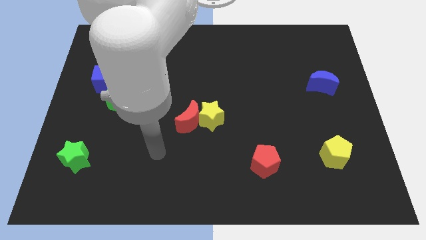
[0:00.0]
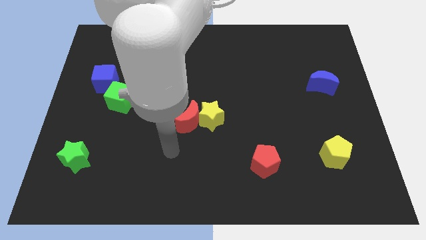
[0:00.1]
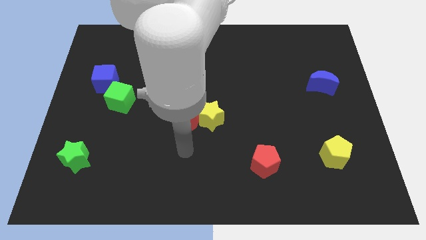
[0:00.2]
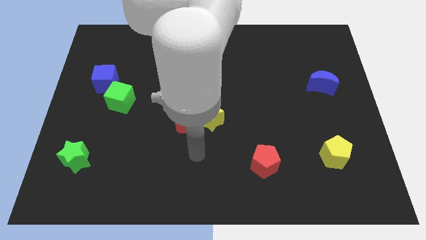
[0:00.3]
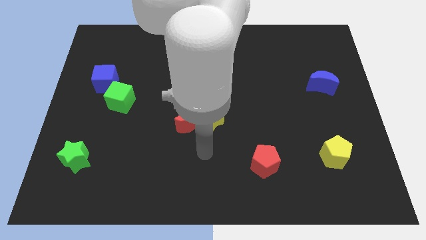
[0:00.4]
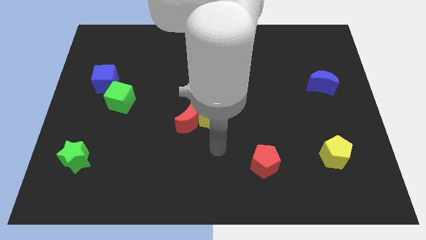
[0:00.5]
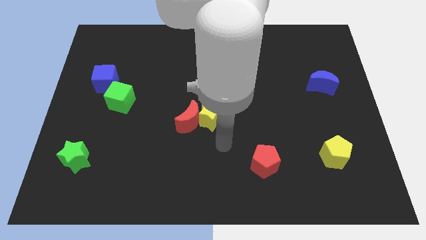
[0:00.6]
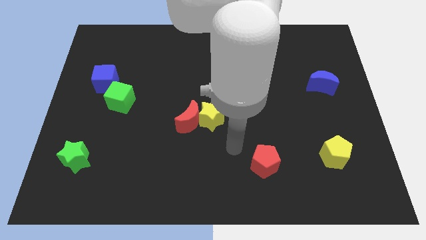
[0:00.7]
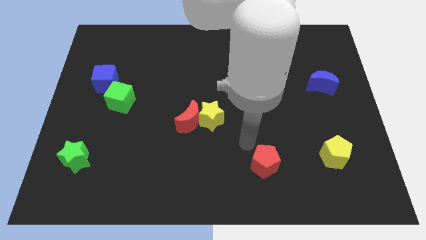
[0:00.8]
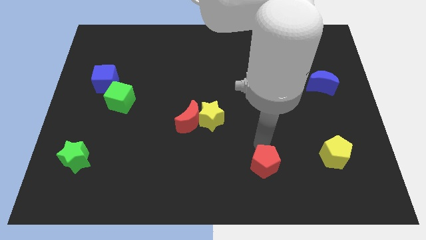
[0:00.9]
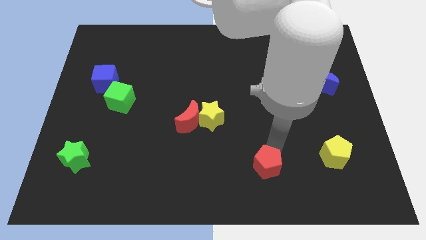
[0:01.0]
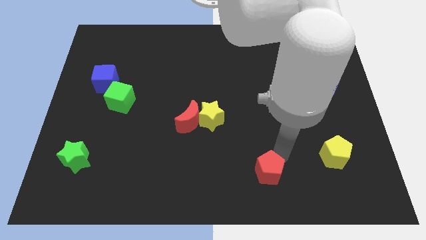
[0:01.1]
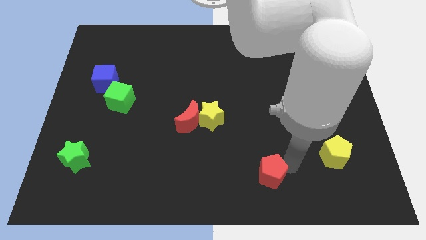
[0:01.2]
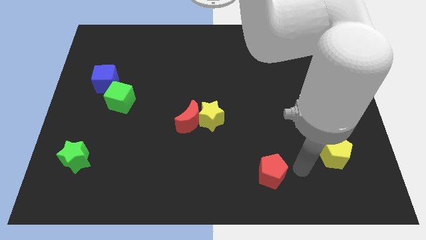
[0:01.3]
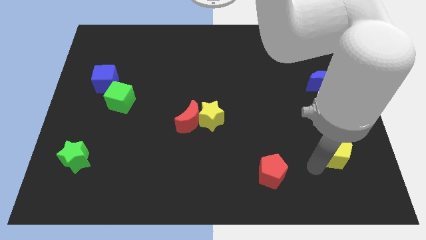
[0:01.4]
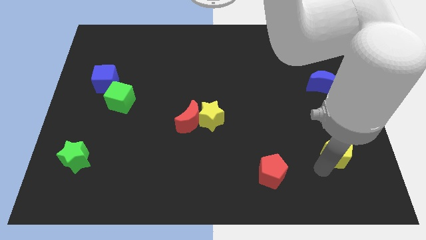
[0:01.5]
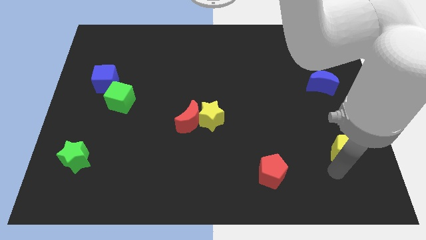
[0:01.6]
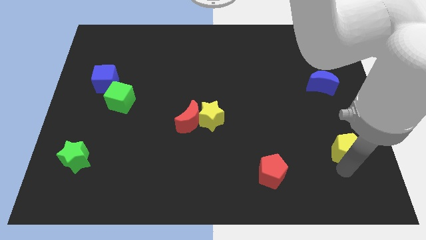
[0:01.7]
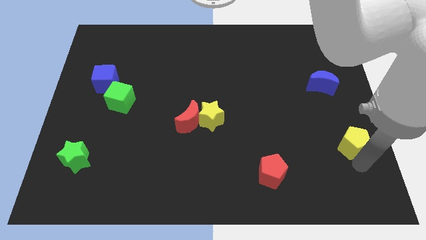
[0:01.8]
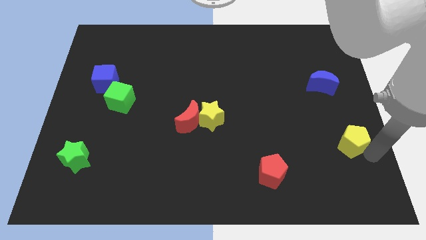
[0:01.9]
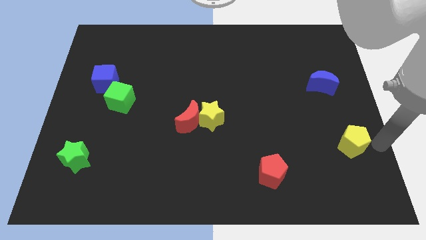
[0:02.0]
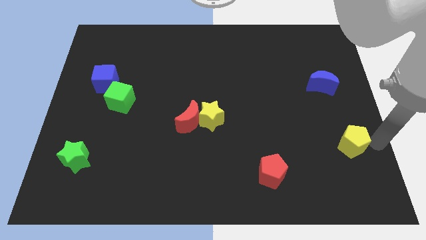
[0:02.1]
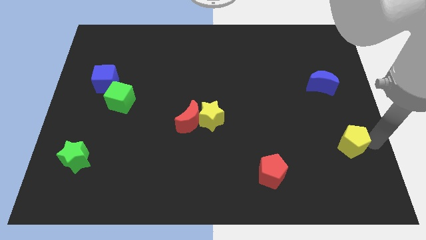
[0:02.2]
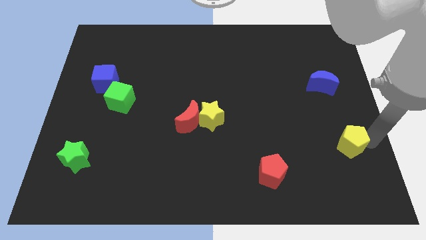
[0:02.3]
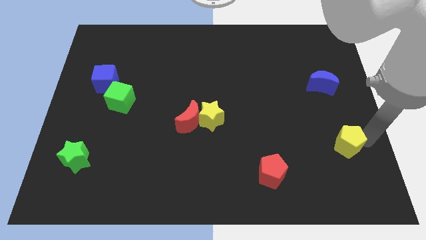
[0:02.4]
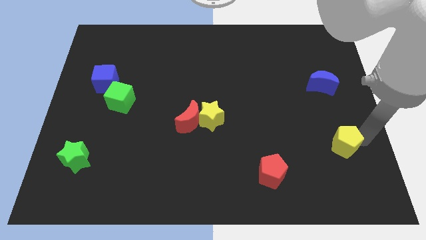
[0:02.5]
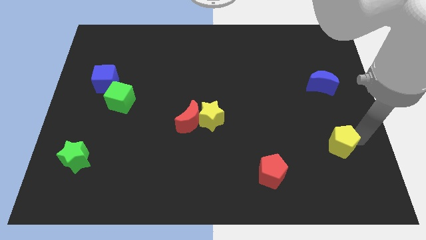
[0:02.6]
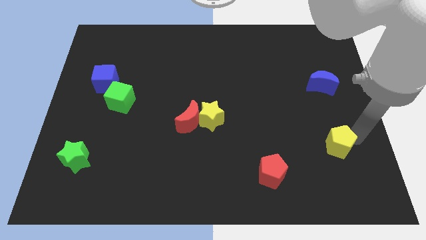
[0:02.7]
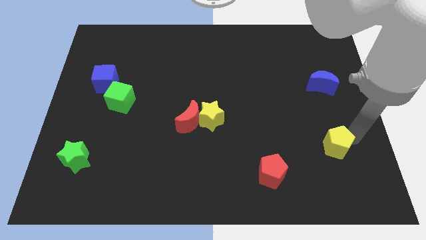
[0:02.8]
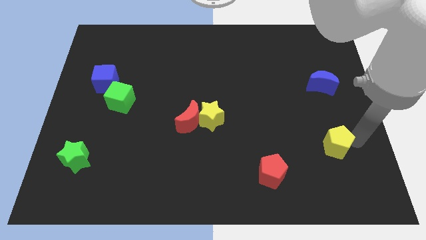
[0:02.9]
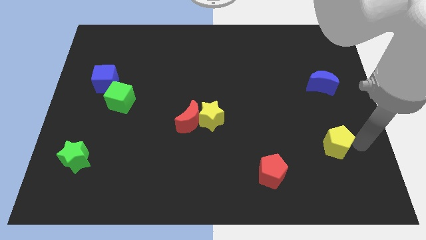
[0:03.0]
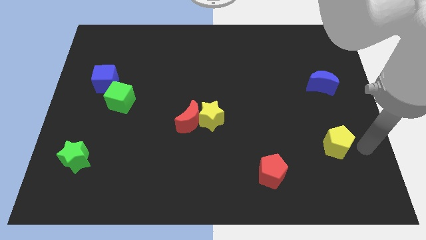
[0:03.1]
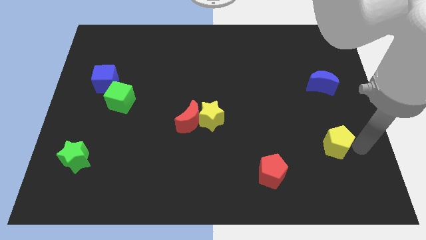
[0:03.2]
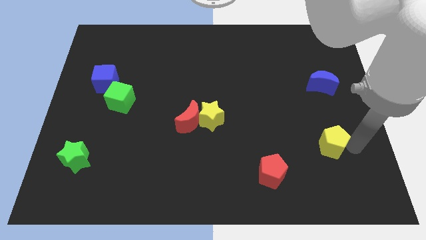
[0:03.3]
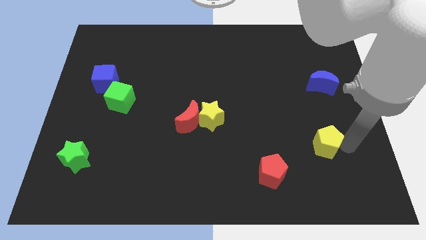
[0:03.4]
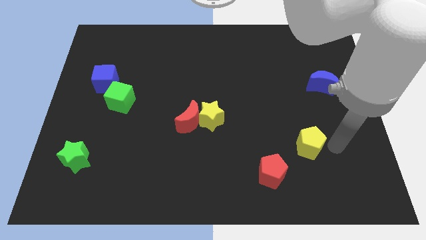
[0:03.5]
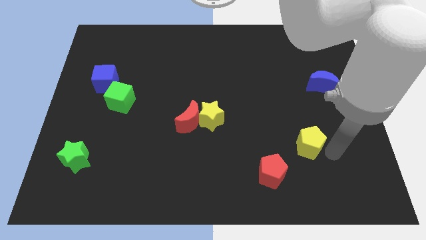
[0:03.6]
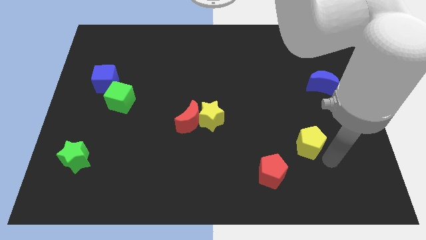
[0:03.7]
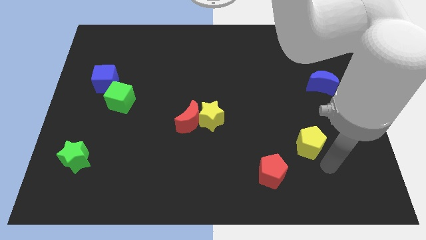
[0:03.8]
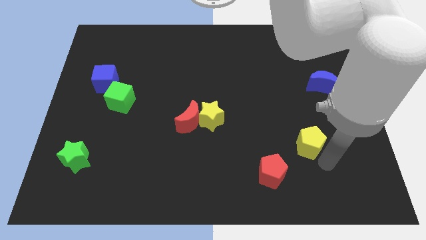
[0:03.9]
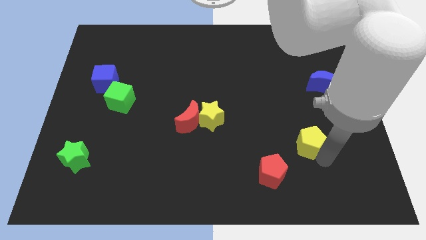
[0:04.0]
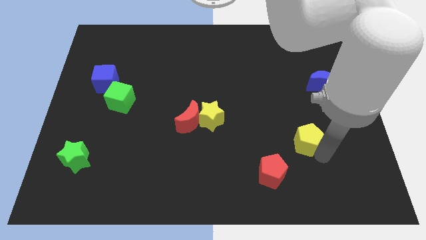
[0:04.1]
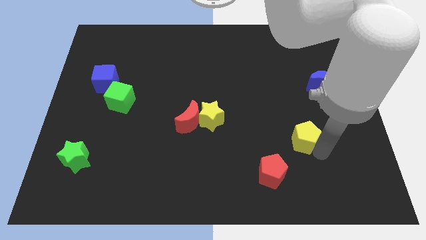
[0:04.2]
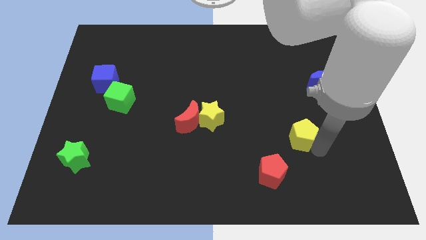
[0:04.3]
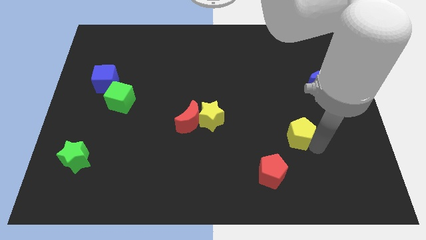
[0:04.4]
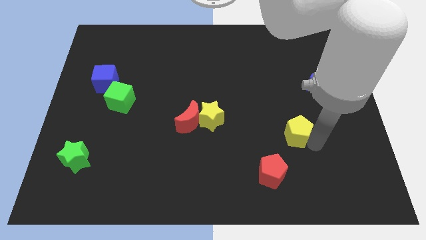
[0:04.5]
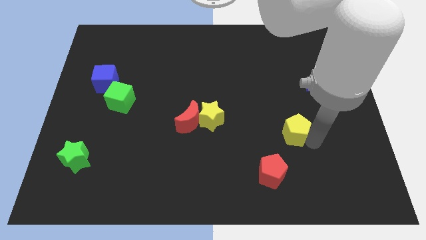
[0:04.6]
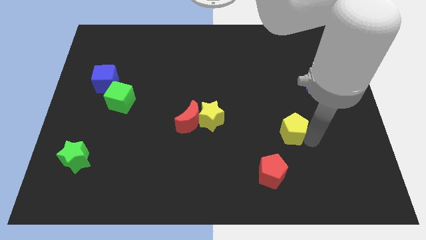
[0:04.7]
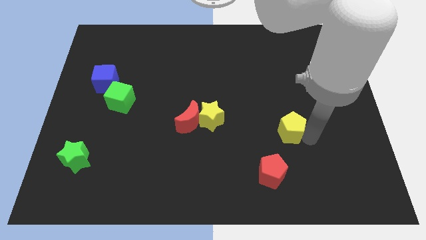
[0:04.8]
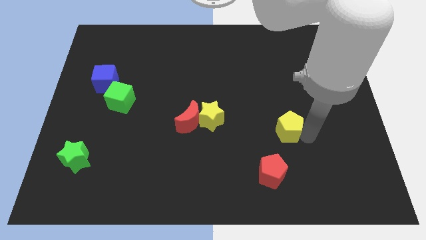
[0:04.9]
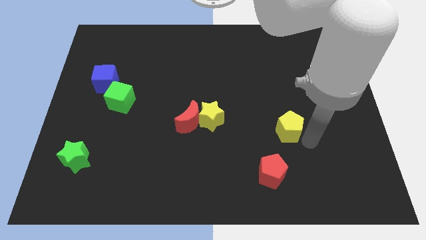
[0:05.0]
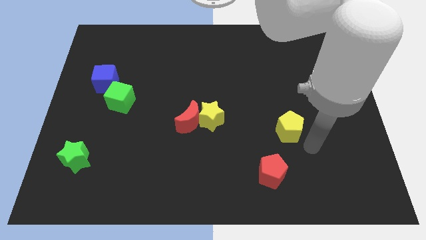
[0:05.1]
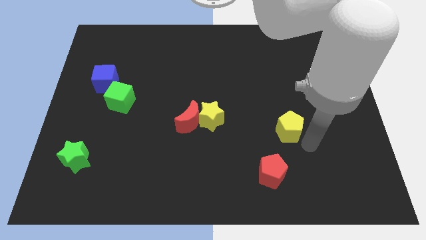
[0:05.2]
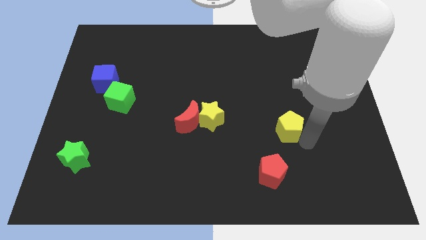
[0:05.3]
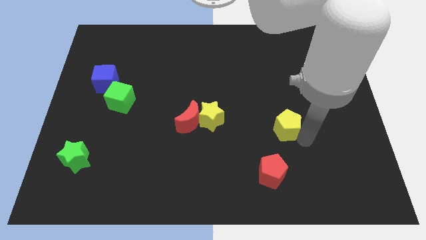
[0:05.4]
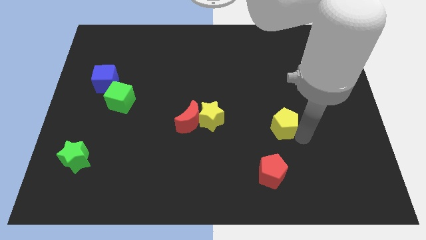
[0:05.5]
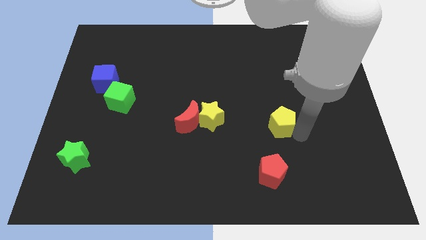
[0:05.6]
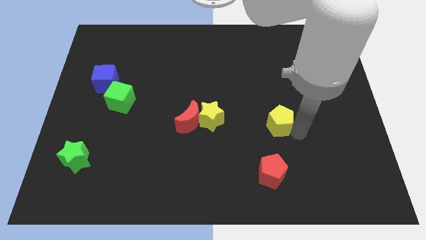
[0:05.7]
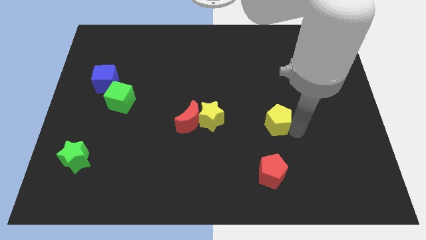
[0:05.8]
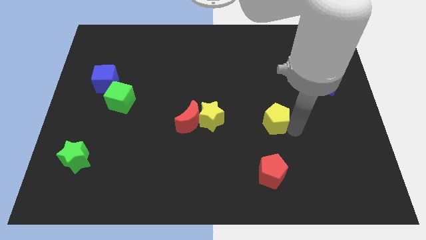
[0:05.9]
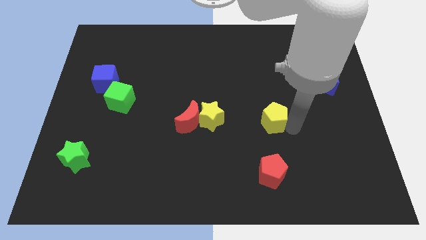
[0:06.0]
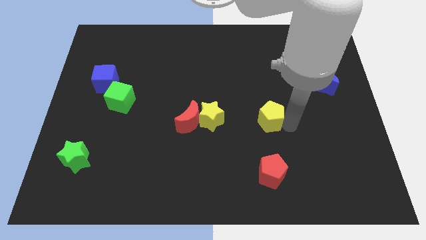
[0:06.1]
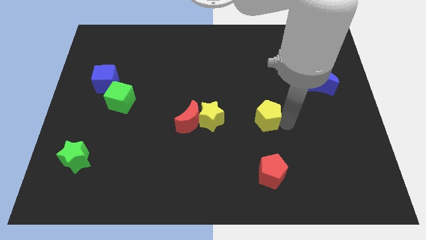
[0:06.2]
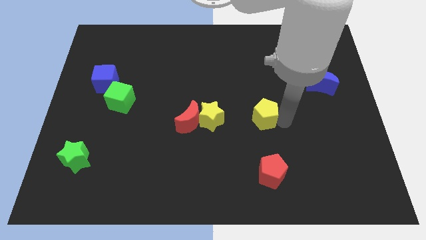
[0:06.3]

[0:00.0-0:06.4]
slide the yellow pentagon to the center of the board

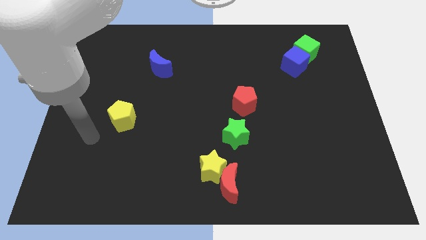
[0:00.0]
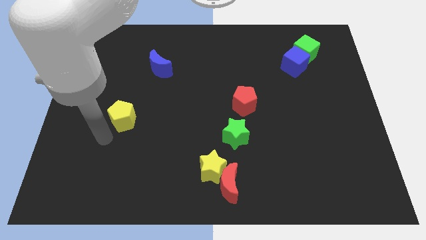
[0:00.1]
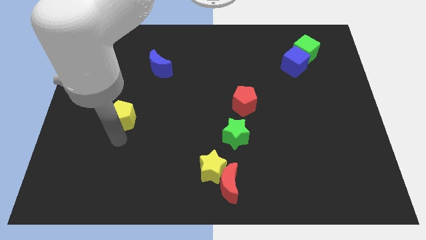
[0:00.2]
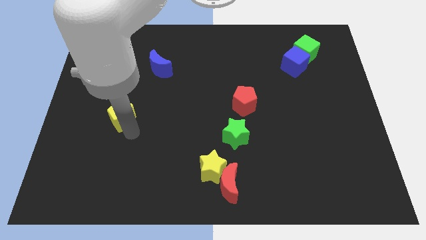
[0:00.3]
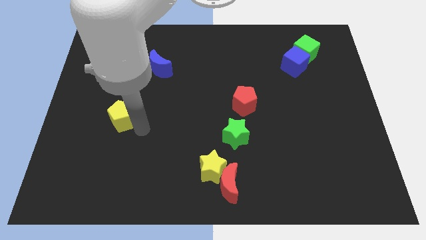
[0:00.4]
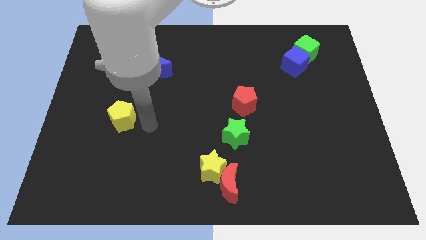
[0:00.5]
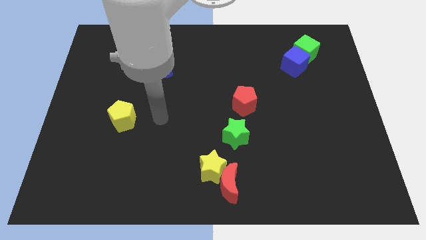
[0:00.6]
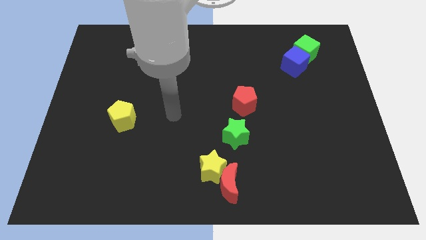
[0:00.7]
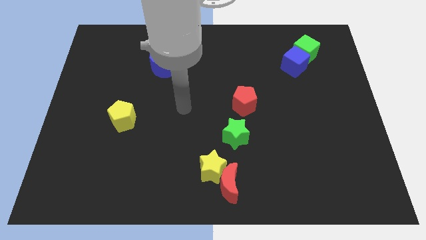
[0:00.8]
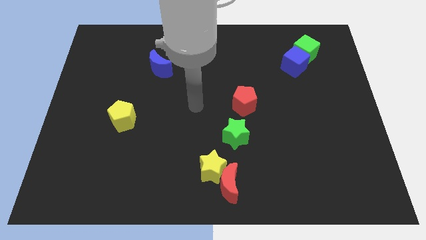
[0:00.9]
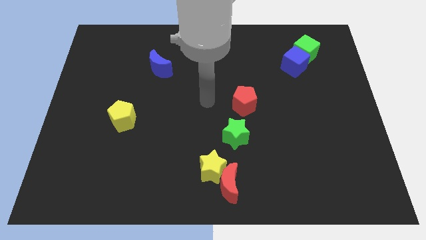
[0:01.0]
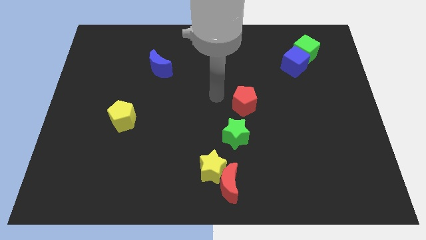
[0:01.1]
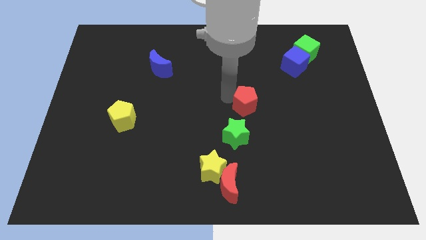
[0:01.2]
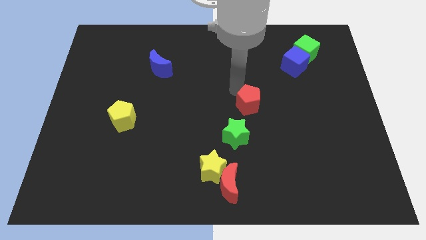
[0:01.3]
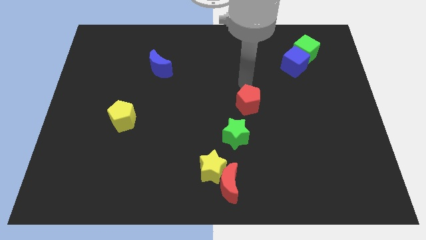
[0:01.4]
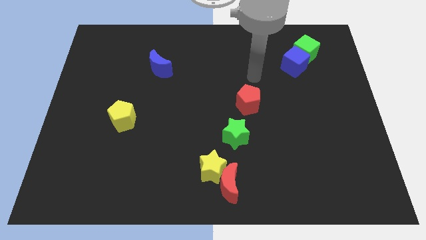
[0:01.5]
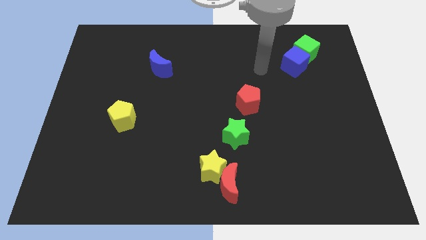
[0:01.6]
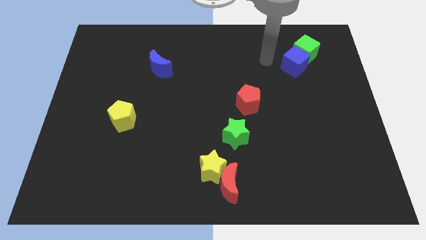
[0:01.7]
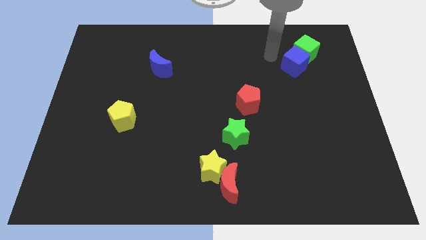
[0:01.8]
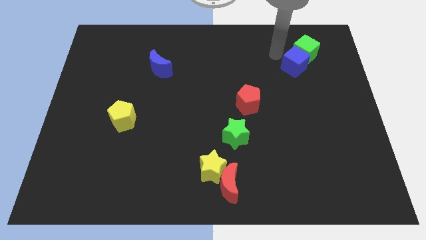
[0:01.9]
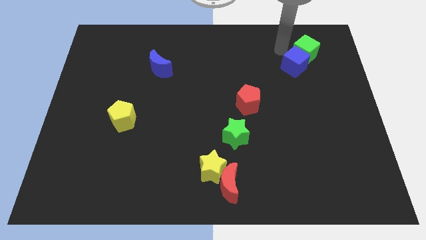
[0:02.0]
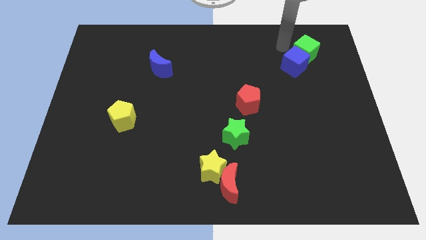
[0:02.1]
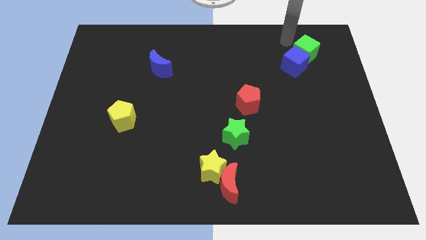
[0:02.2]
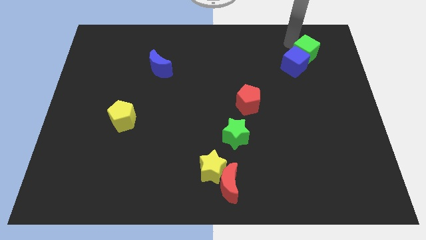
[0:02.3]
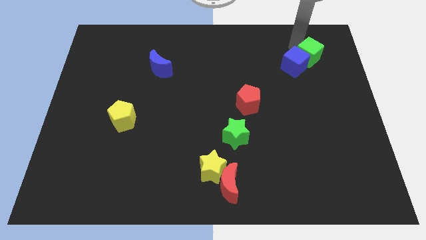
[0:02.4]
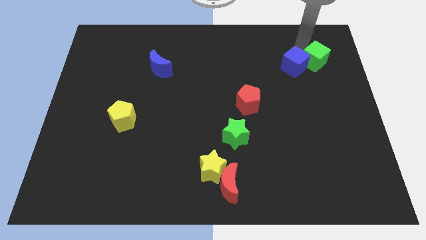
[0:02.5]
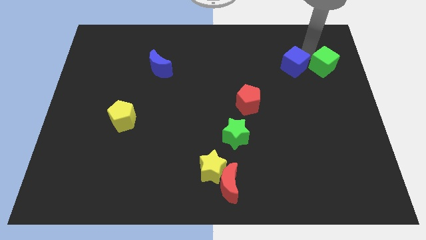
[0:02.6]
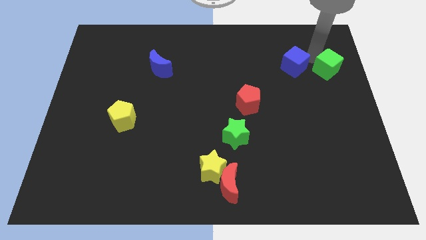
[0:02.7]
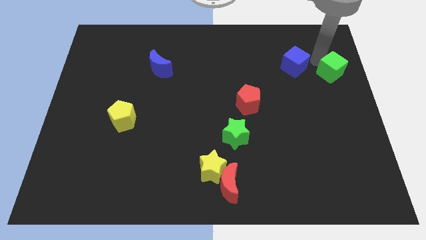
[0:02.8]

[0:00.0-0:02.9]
slide the green cube to the right side
